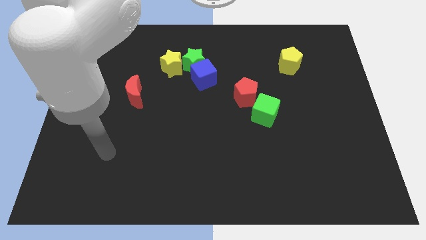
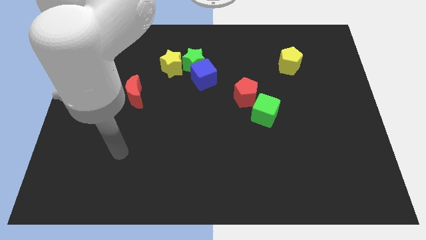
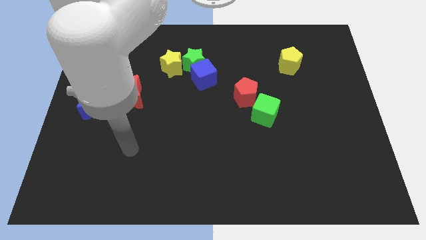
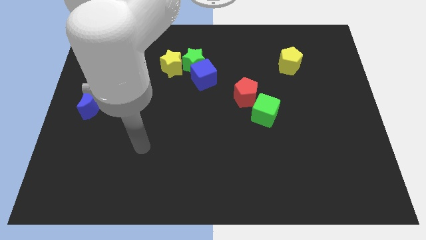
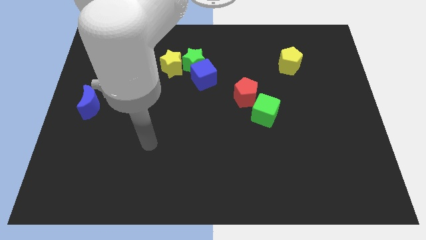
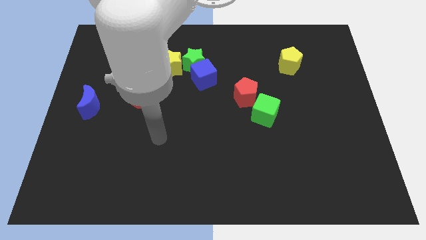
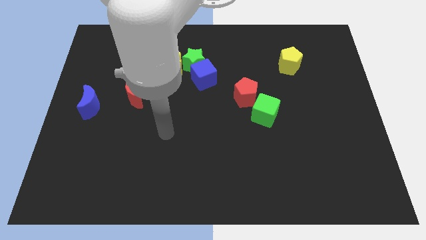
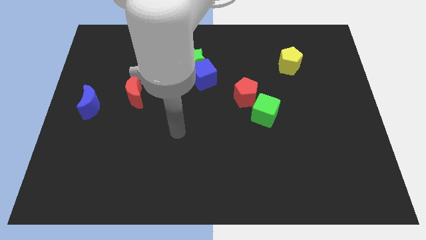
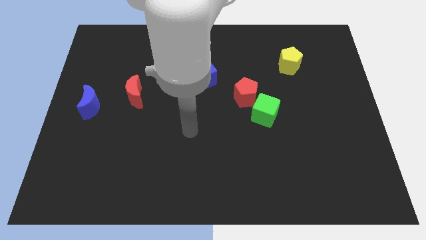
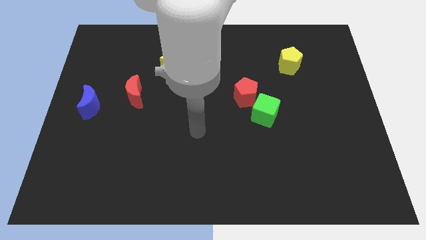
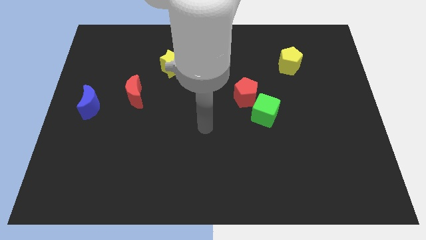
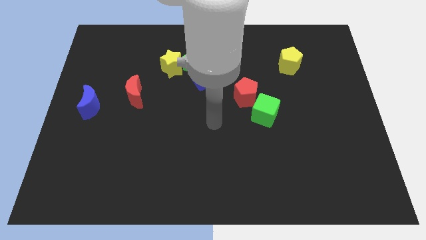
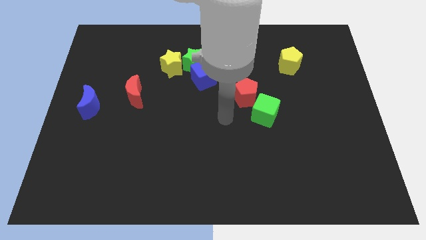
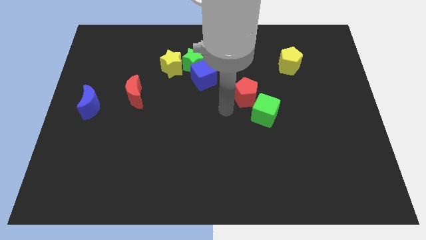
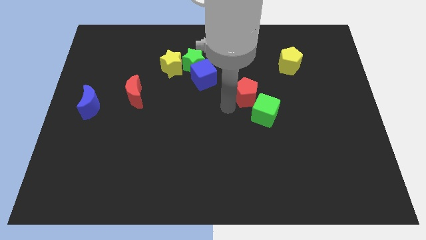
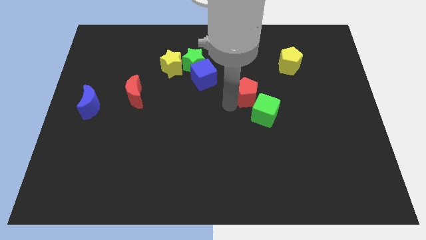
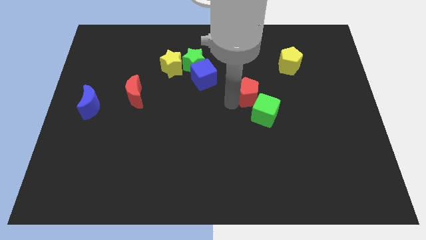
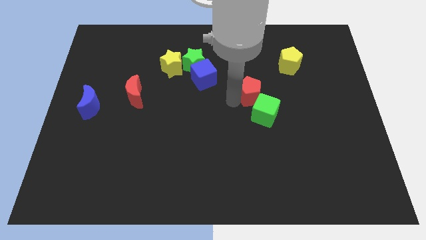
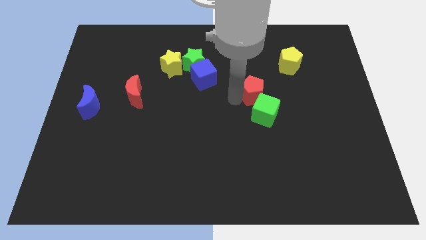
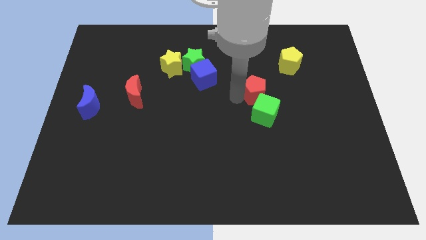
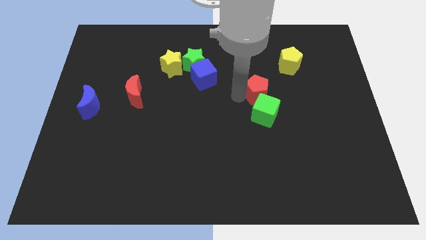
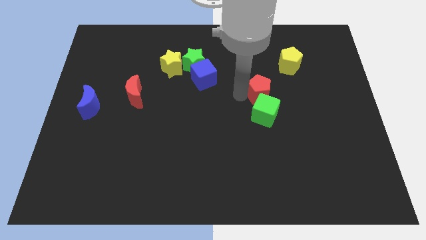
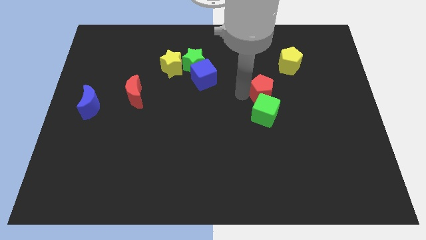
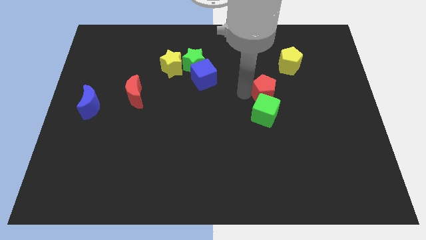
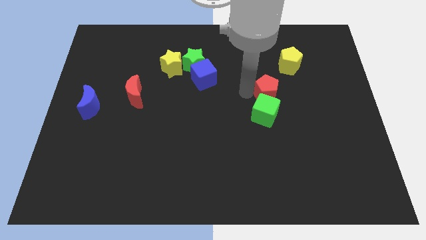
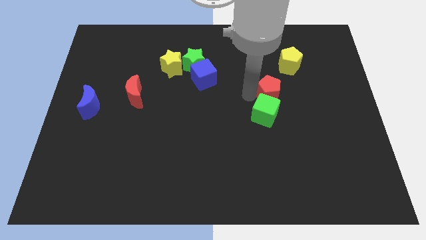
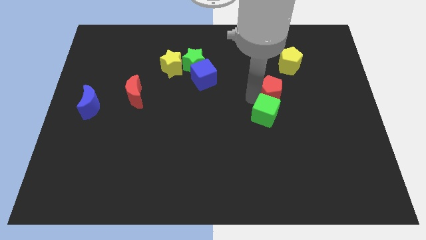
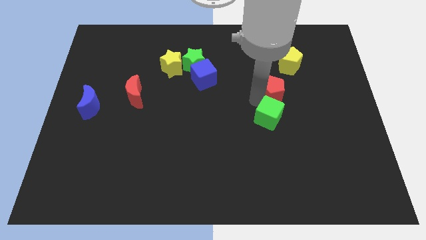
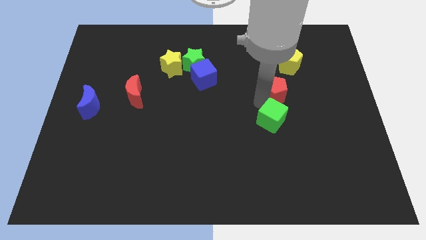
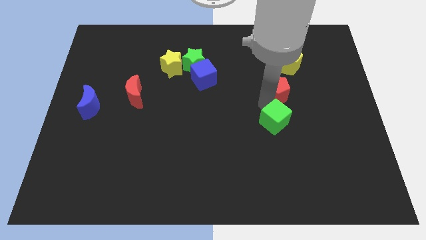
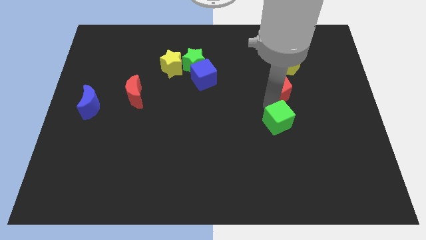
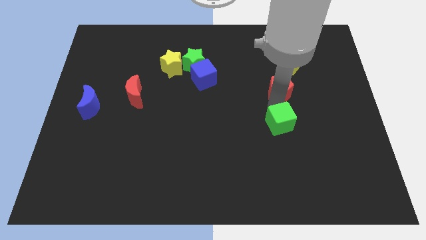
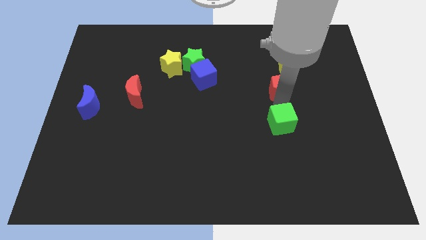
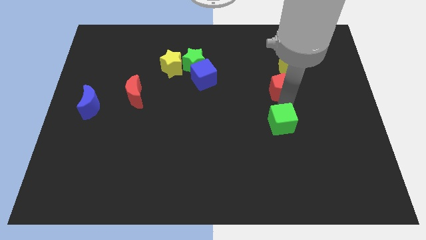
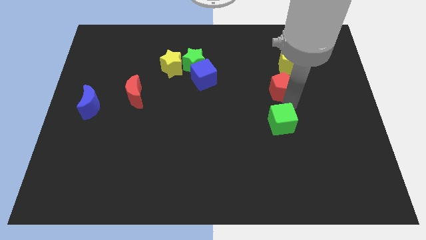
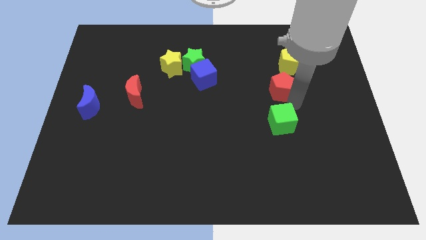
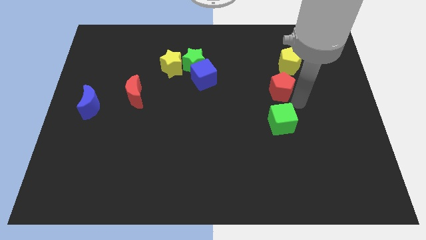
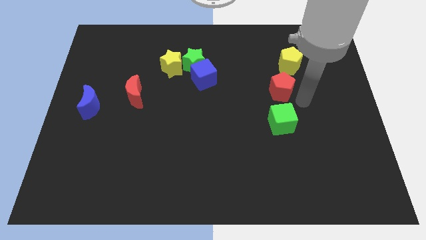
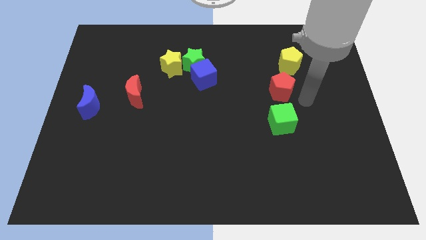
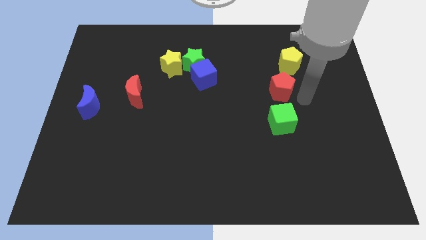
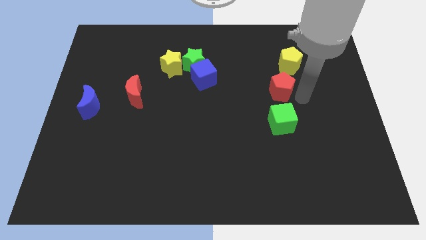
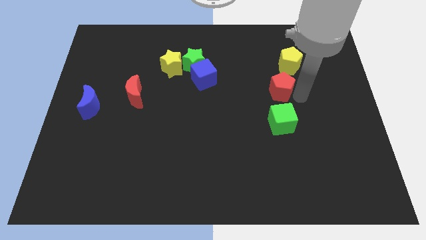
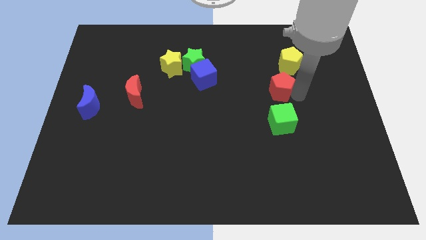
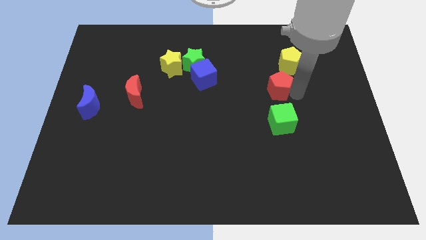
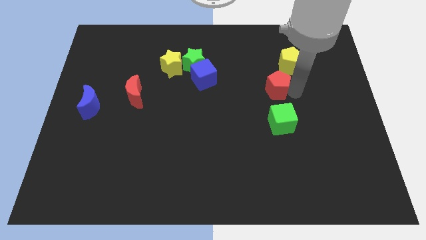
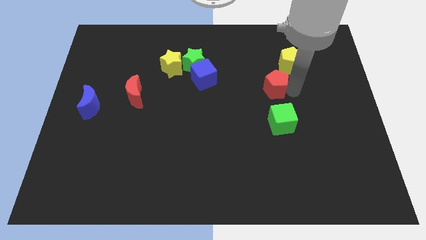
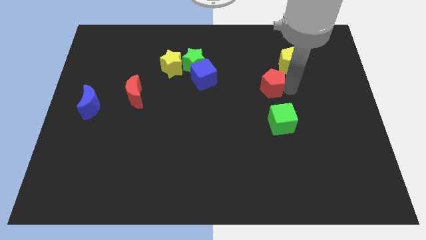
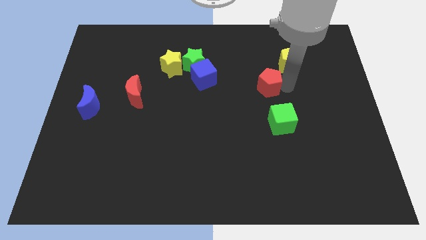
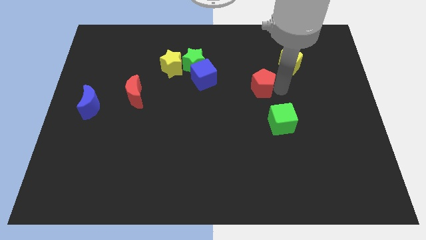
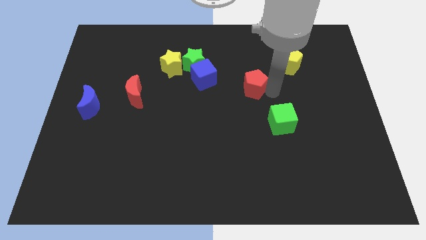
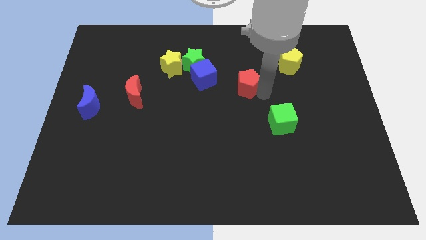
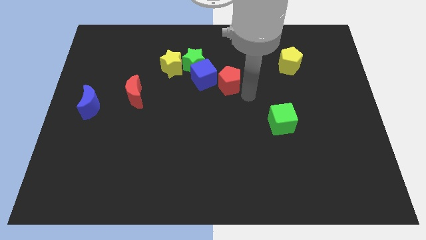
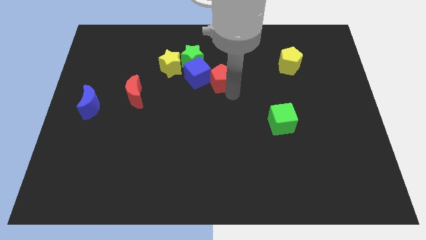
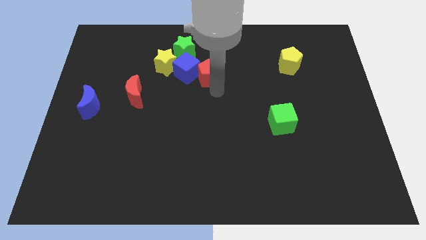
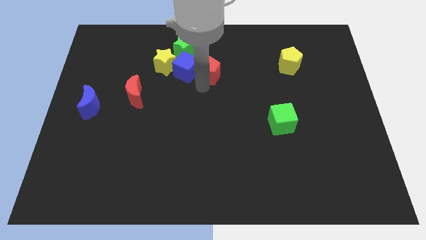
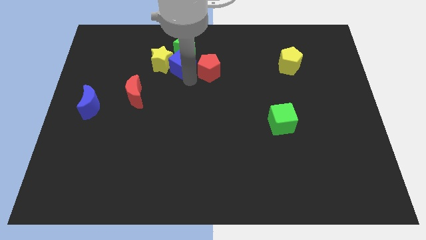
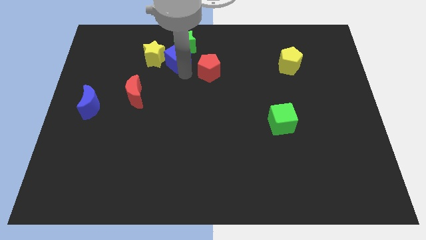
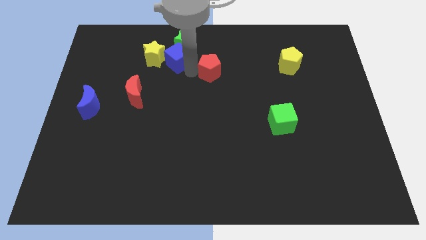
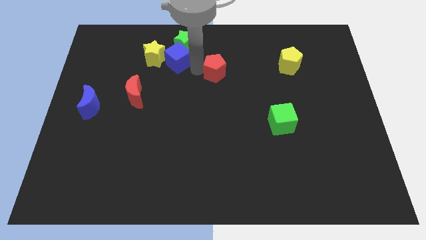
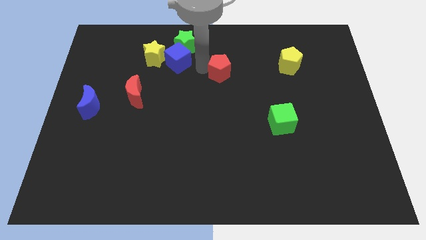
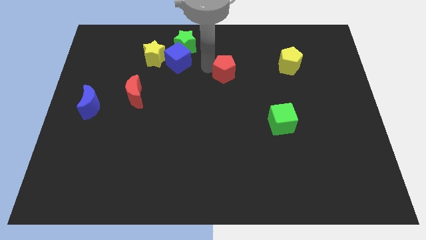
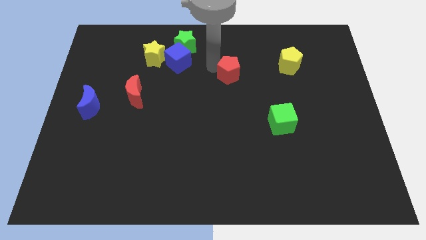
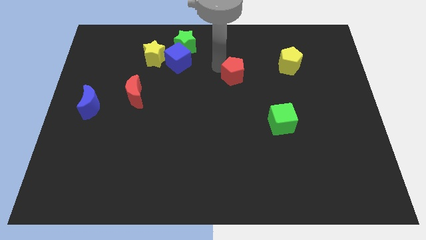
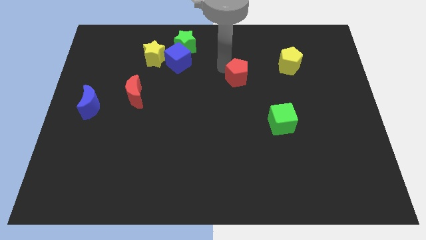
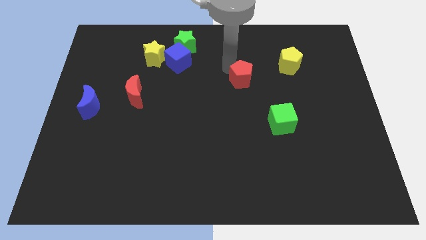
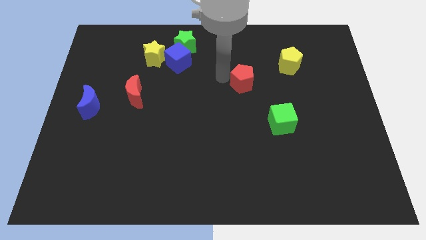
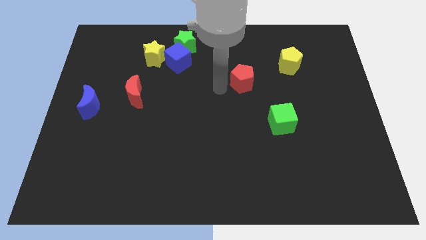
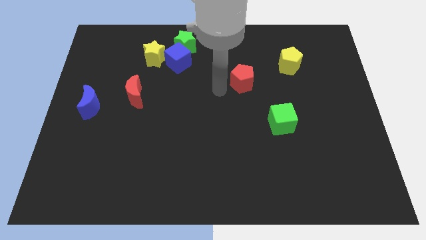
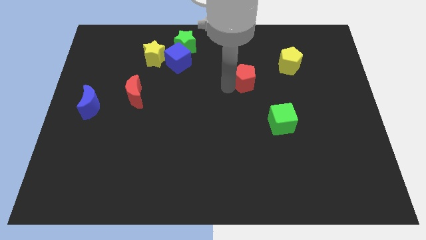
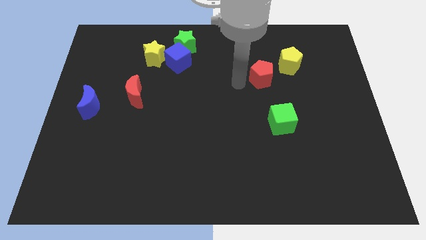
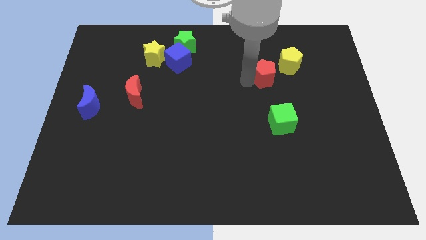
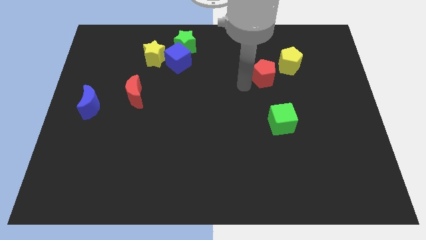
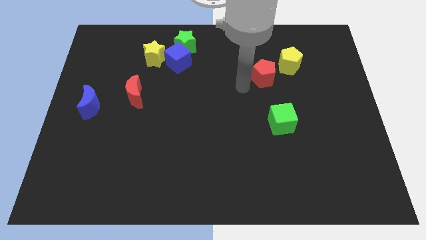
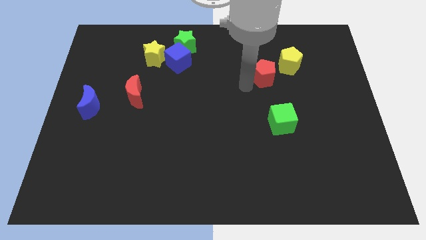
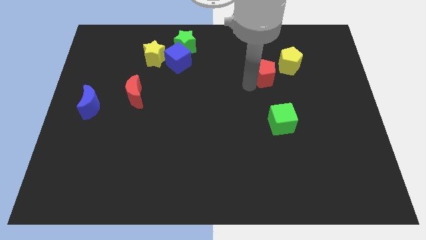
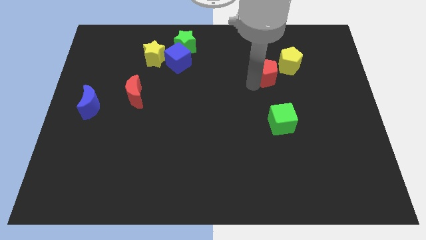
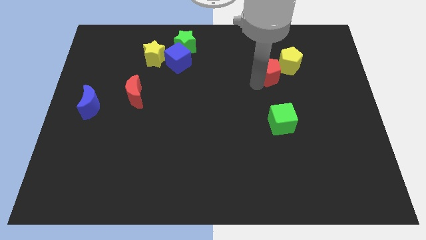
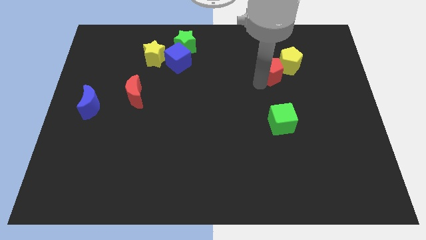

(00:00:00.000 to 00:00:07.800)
push the red pentagon next to the yellow pentagon

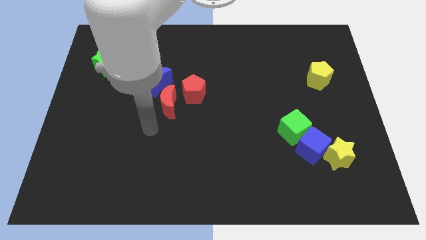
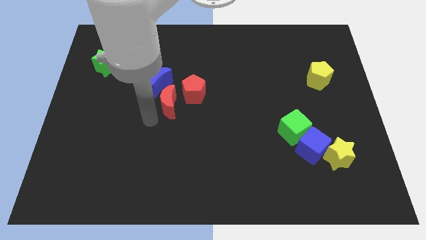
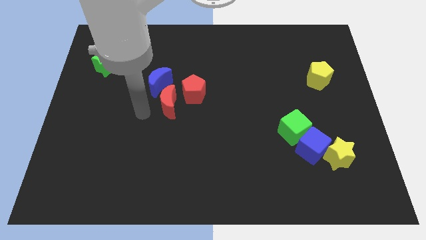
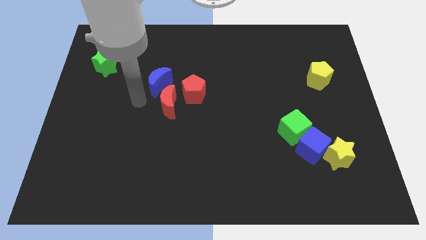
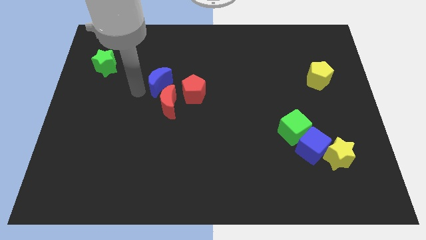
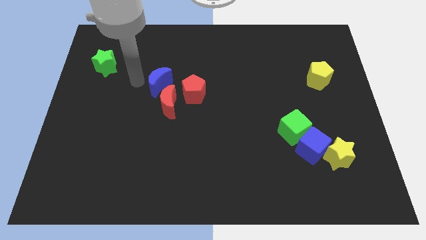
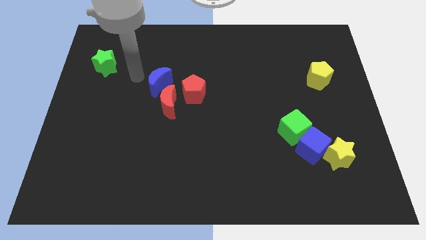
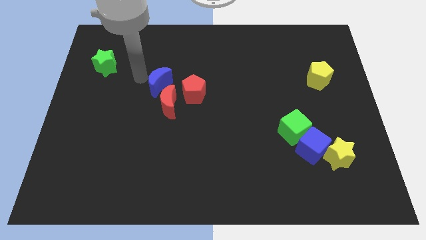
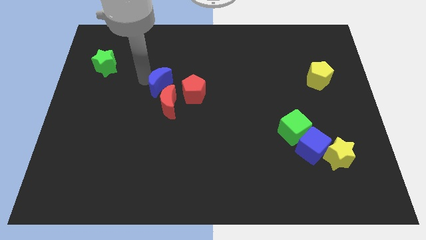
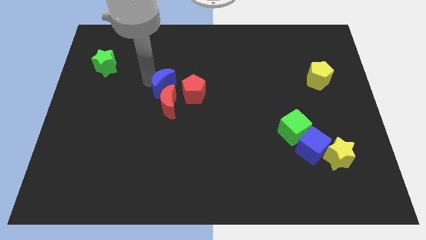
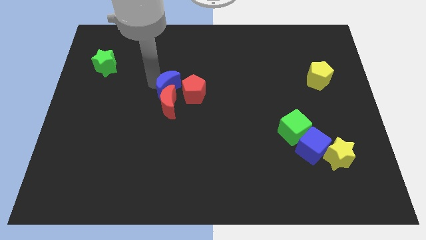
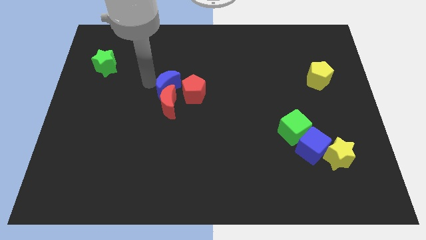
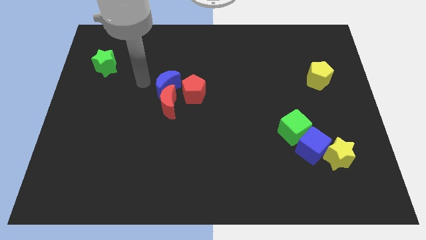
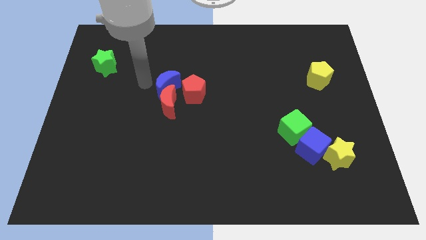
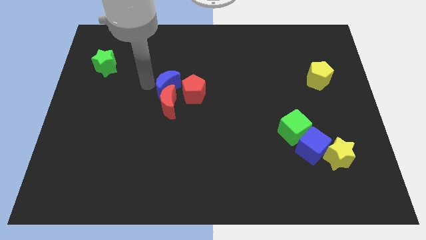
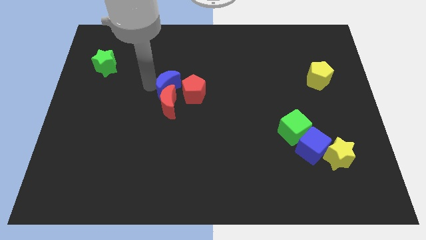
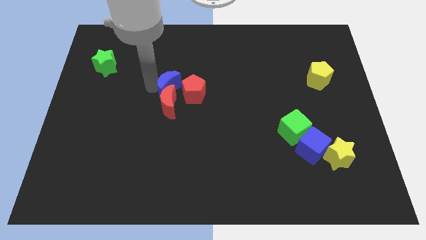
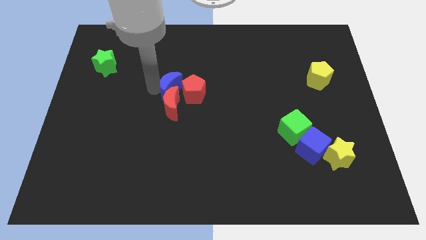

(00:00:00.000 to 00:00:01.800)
push the blue moon close to the red pentagon
